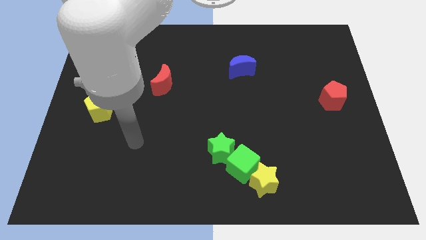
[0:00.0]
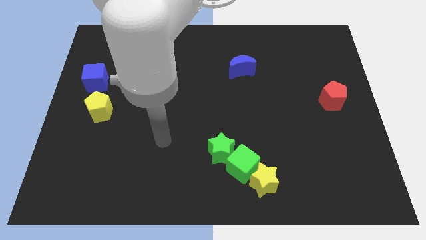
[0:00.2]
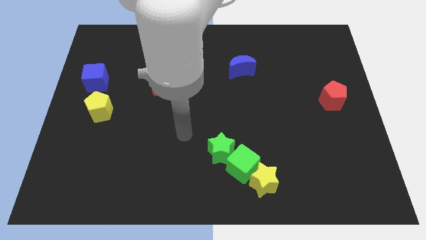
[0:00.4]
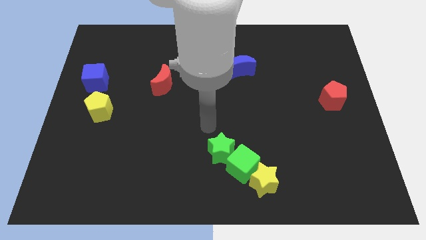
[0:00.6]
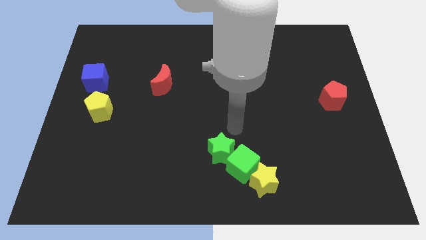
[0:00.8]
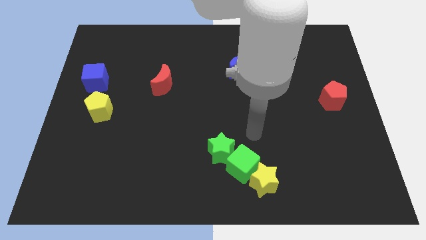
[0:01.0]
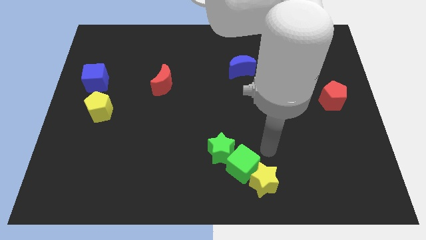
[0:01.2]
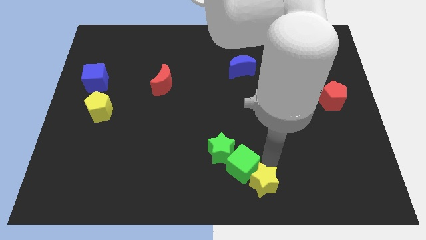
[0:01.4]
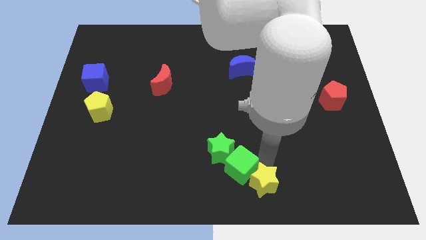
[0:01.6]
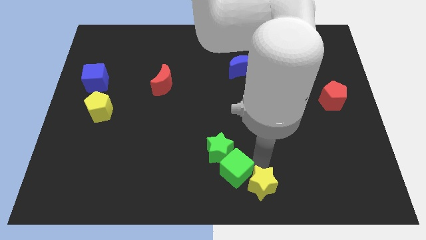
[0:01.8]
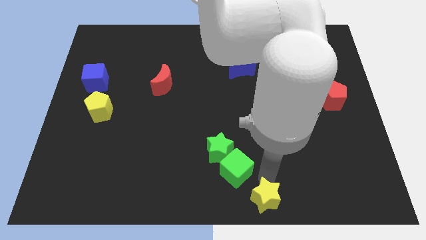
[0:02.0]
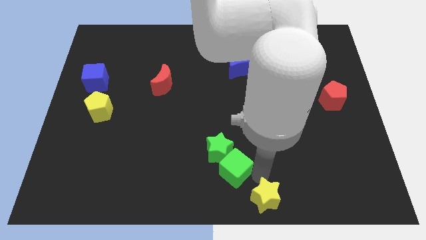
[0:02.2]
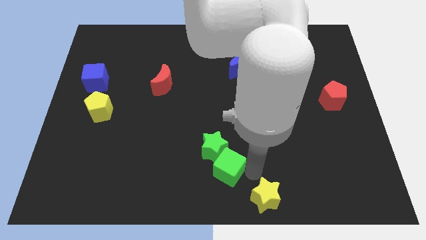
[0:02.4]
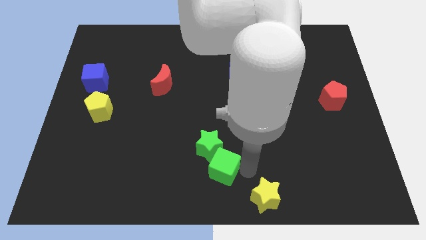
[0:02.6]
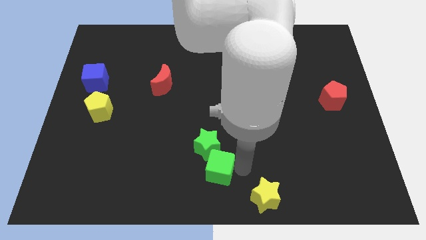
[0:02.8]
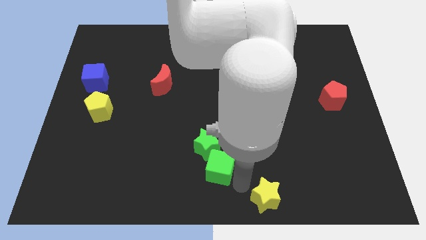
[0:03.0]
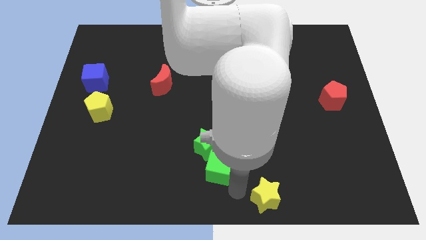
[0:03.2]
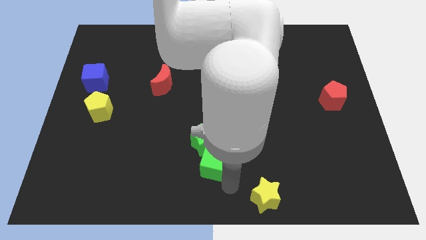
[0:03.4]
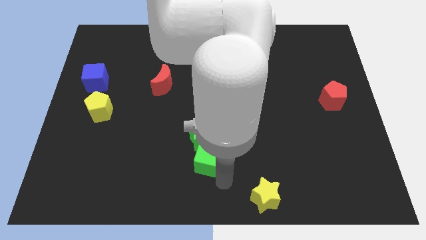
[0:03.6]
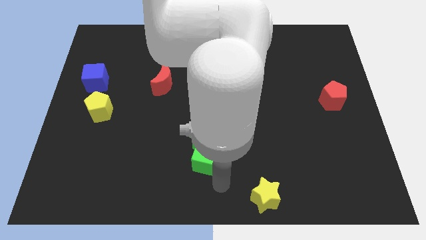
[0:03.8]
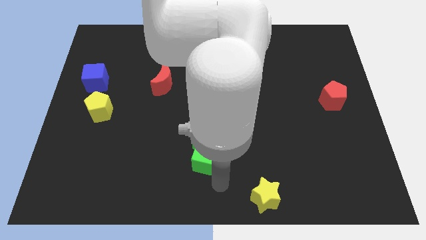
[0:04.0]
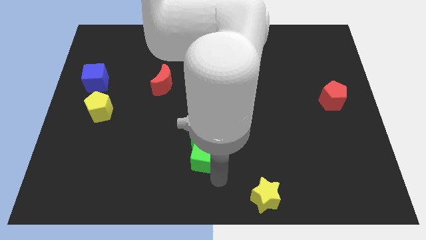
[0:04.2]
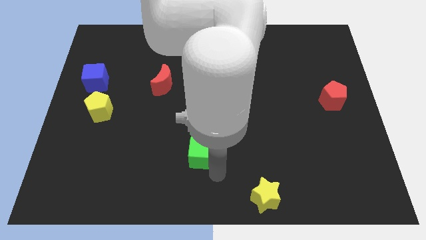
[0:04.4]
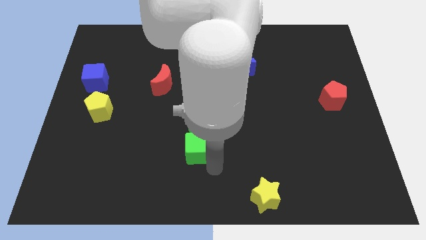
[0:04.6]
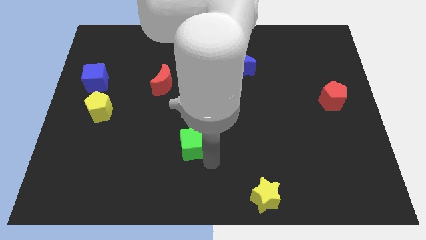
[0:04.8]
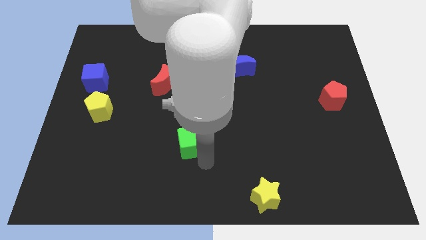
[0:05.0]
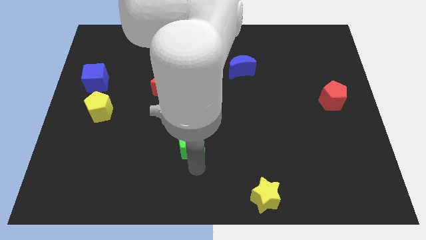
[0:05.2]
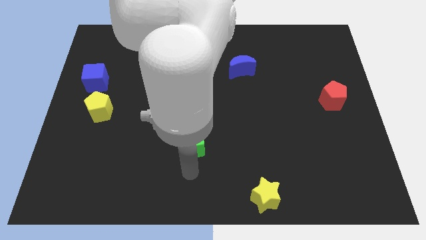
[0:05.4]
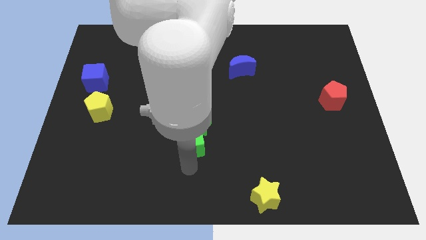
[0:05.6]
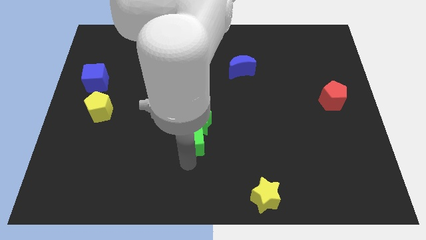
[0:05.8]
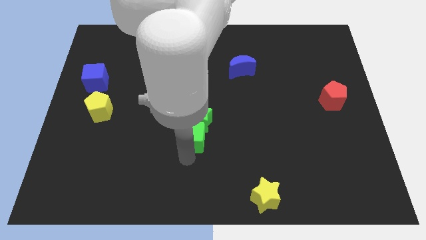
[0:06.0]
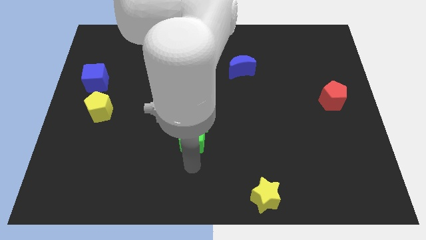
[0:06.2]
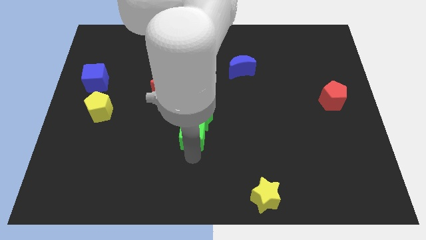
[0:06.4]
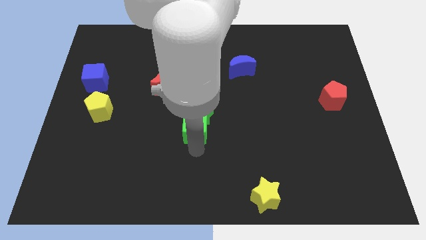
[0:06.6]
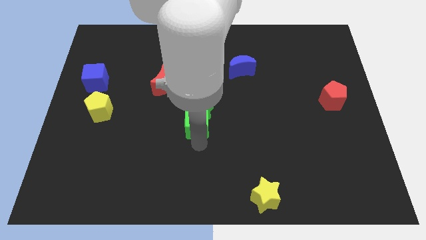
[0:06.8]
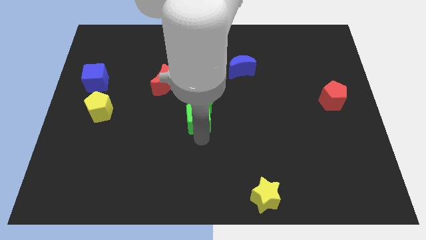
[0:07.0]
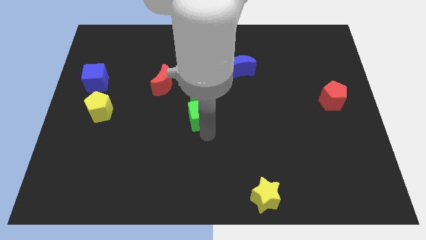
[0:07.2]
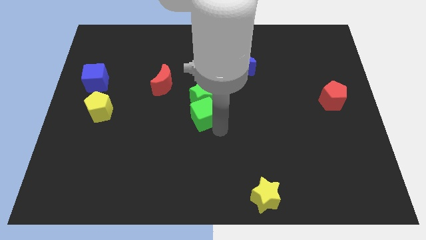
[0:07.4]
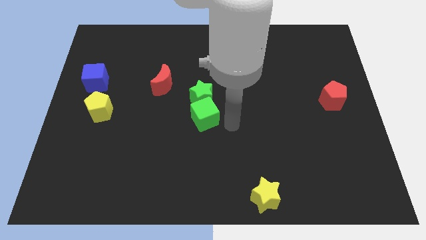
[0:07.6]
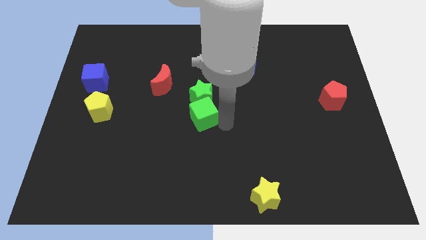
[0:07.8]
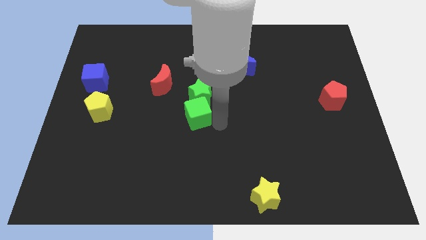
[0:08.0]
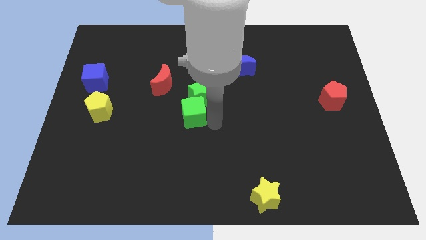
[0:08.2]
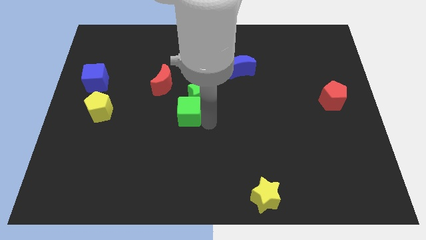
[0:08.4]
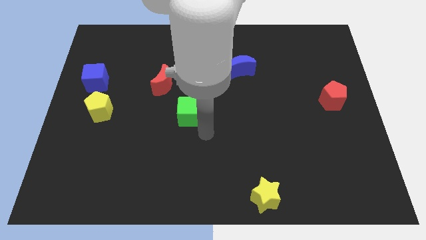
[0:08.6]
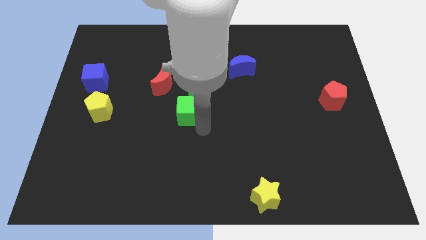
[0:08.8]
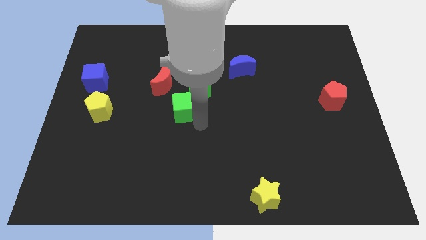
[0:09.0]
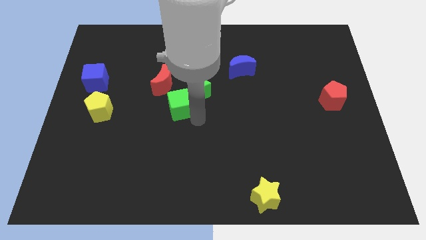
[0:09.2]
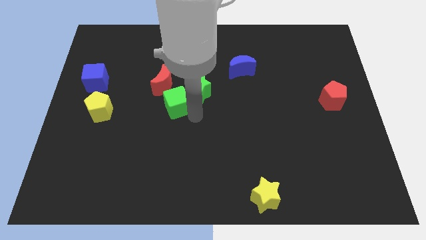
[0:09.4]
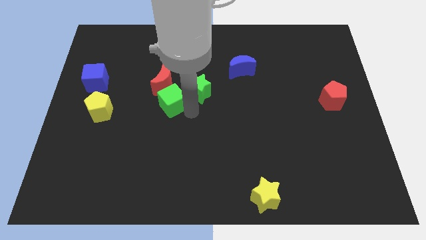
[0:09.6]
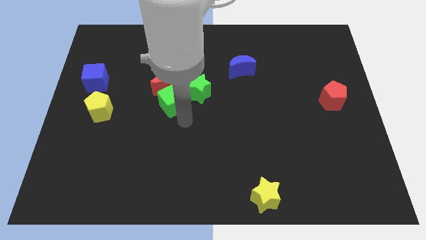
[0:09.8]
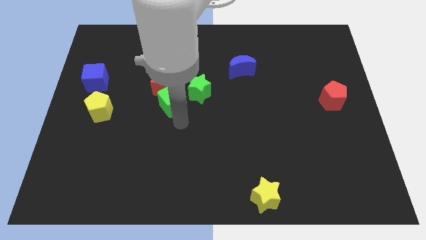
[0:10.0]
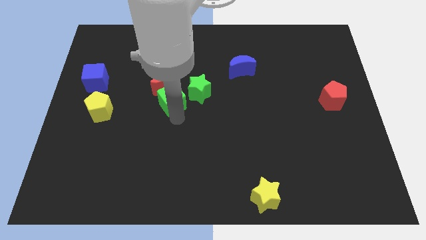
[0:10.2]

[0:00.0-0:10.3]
push the green cube close to the red moon

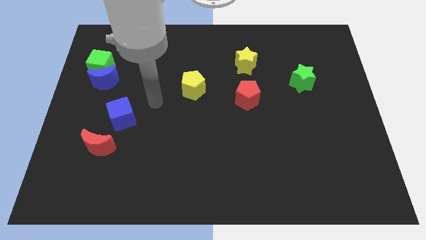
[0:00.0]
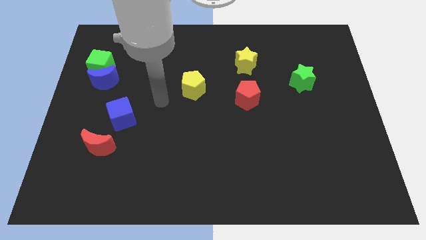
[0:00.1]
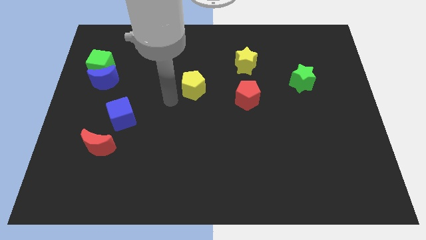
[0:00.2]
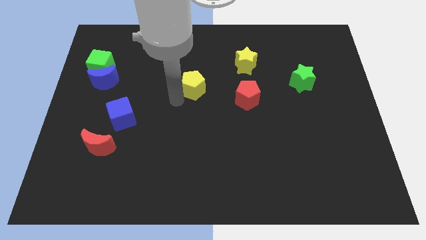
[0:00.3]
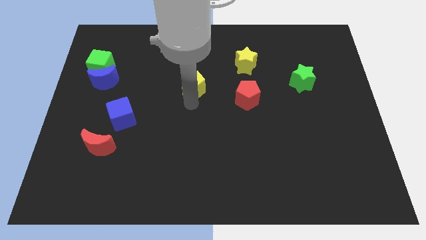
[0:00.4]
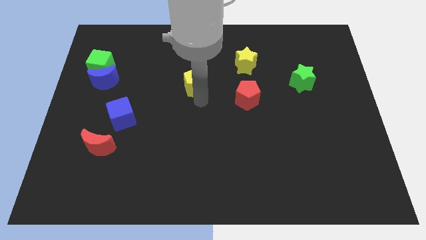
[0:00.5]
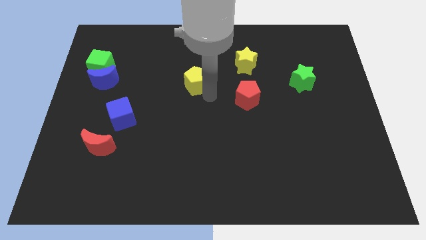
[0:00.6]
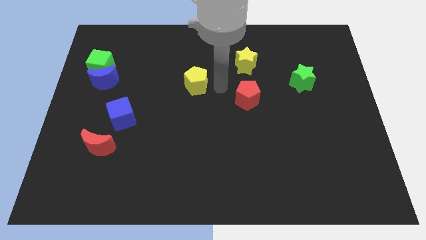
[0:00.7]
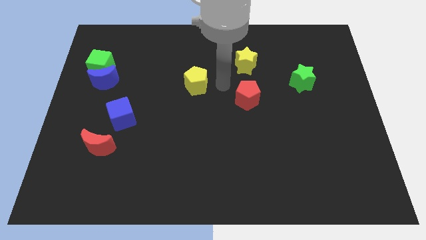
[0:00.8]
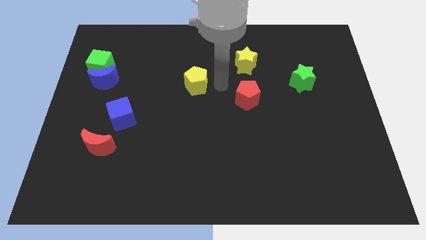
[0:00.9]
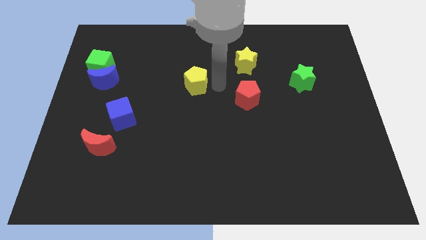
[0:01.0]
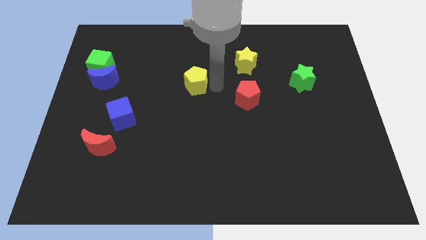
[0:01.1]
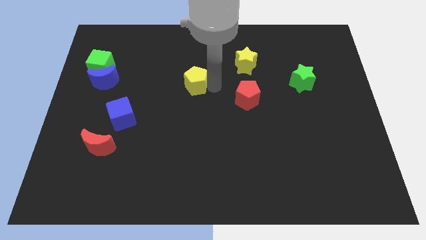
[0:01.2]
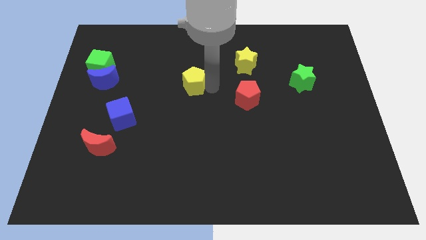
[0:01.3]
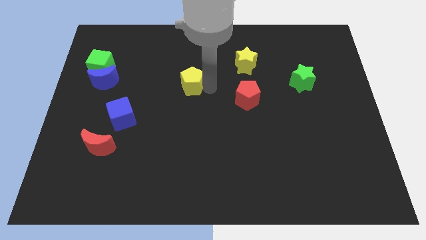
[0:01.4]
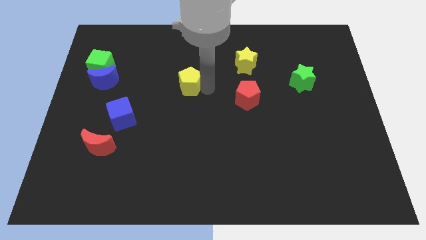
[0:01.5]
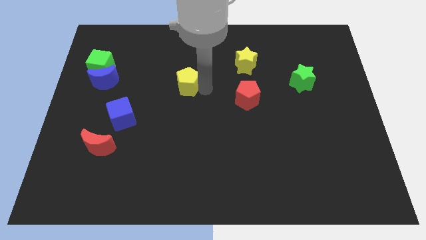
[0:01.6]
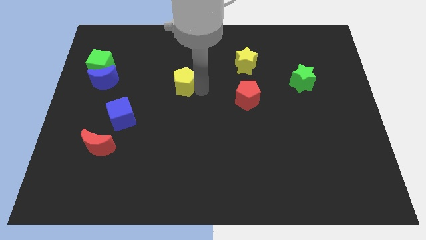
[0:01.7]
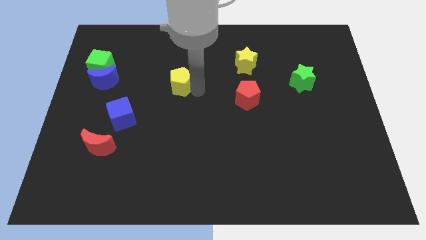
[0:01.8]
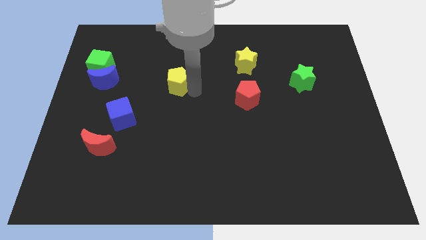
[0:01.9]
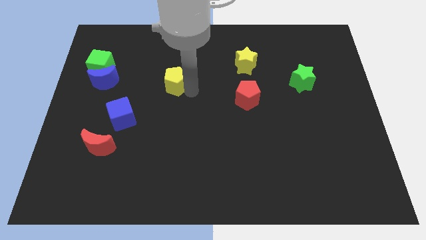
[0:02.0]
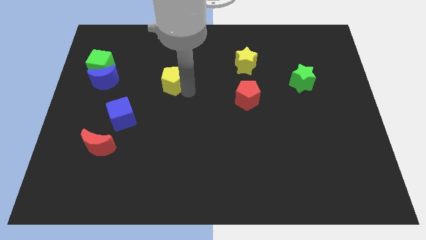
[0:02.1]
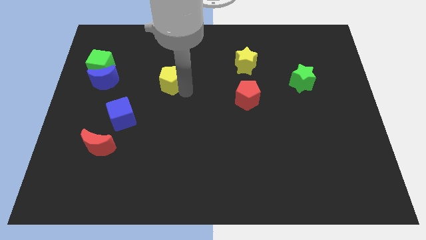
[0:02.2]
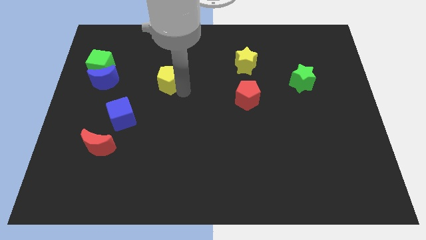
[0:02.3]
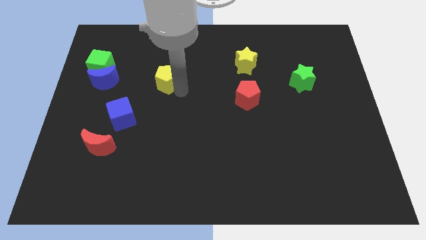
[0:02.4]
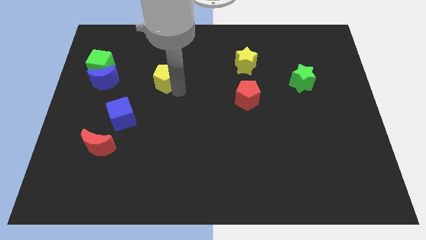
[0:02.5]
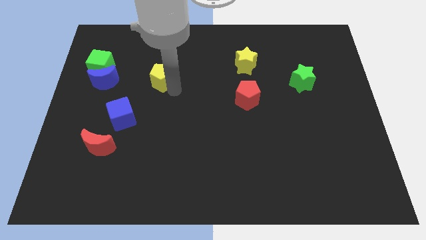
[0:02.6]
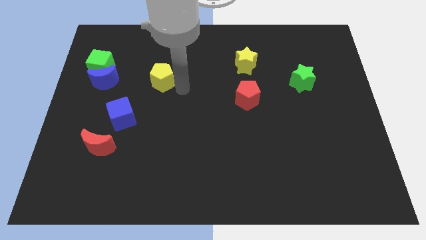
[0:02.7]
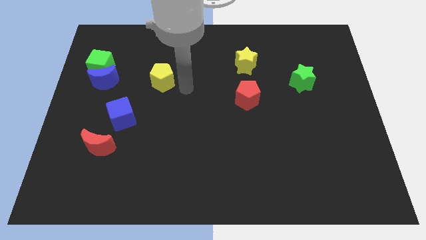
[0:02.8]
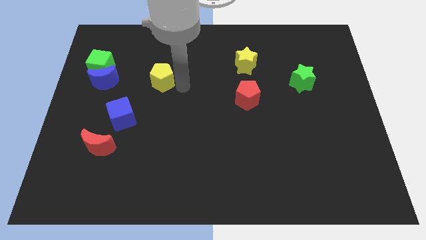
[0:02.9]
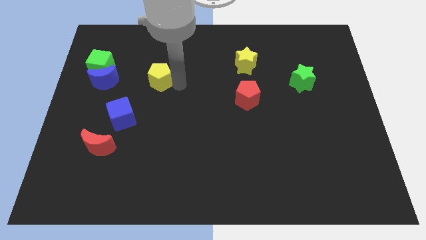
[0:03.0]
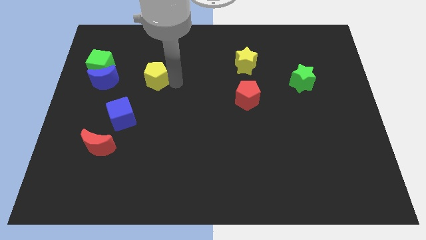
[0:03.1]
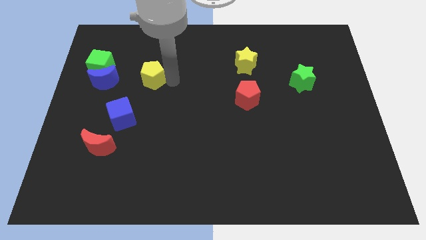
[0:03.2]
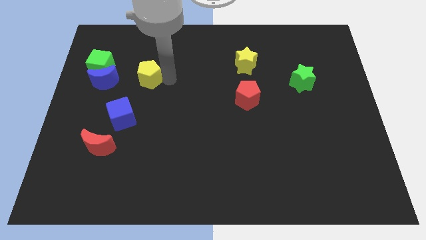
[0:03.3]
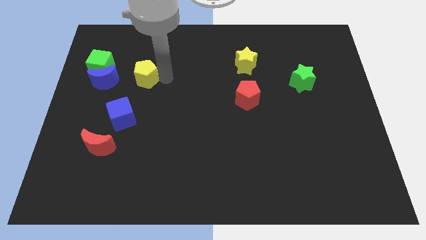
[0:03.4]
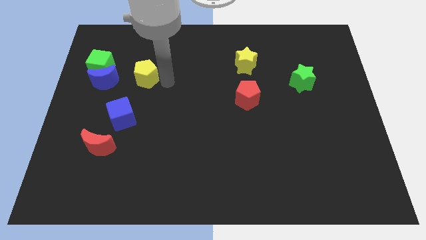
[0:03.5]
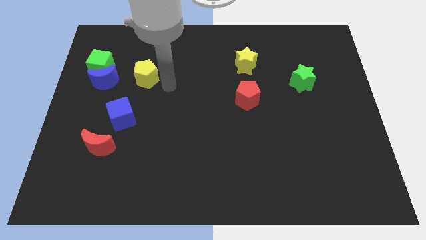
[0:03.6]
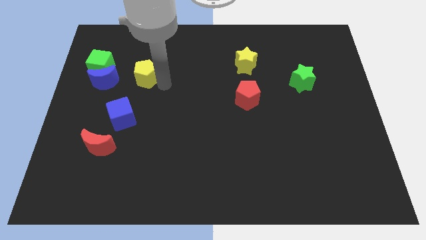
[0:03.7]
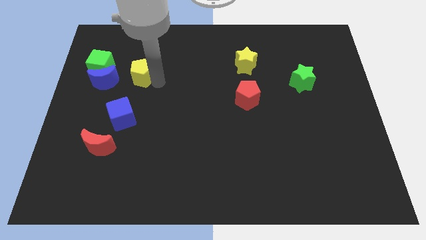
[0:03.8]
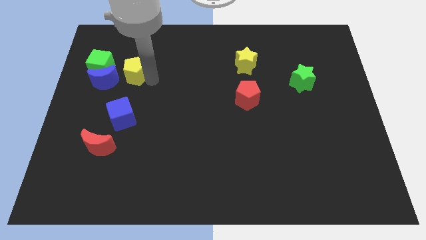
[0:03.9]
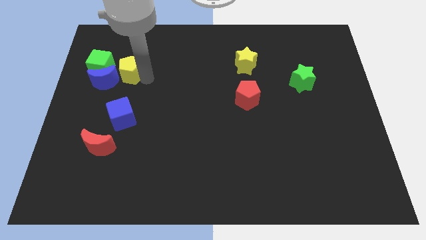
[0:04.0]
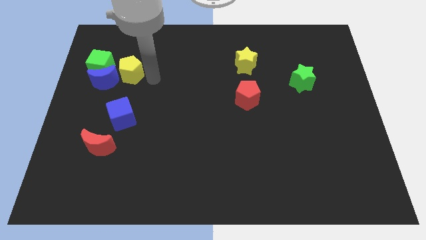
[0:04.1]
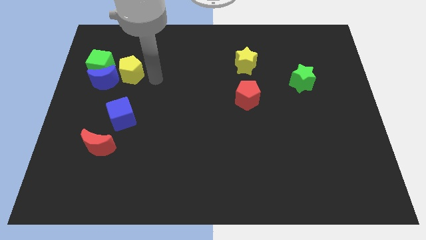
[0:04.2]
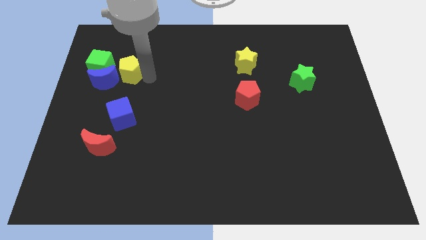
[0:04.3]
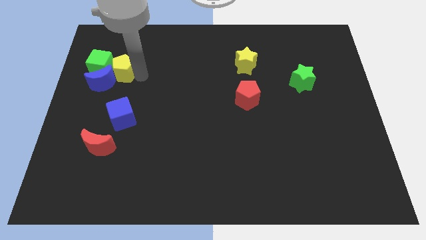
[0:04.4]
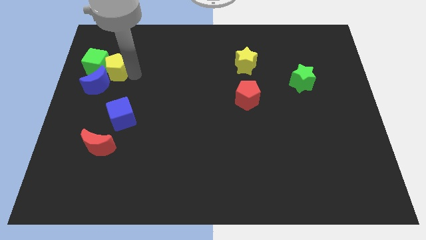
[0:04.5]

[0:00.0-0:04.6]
push the yellow pentagon towards the green cube
